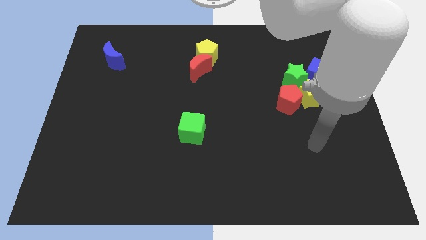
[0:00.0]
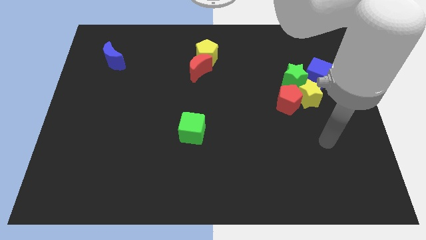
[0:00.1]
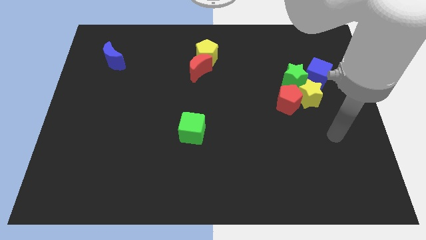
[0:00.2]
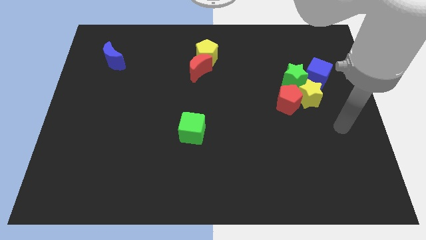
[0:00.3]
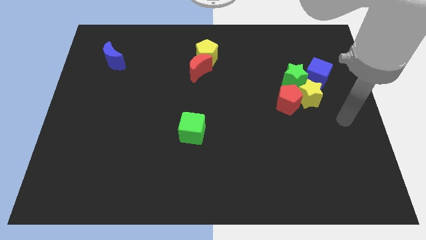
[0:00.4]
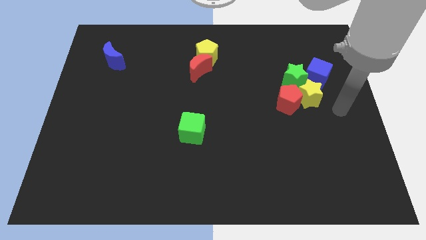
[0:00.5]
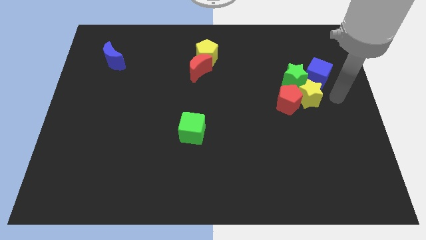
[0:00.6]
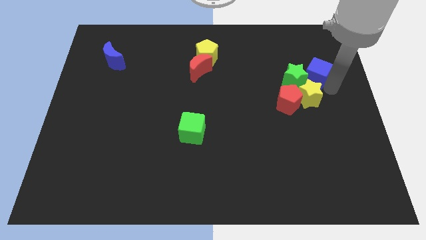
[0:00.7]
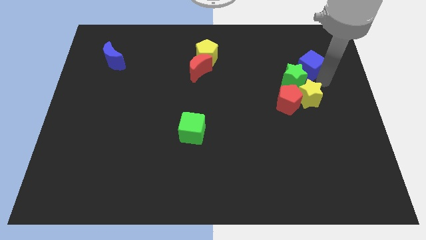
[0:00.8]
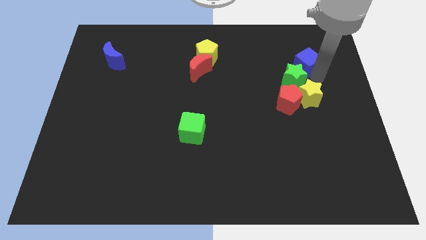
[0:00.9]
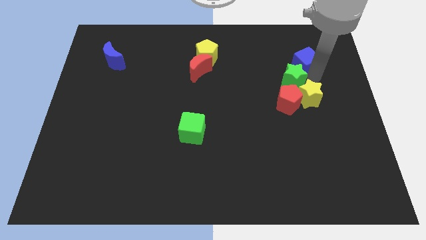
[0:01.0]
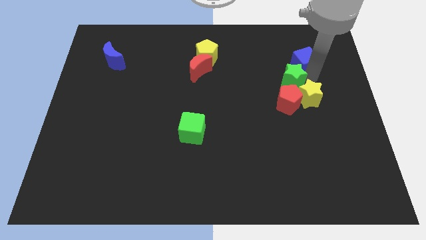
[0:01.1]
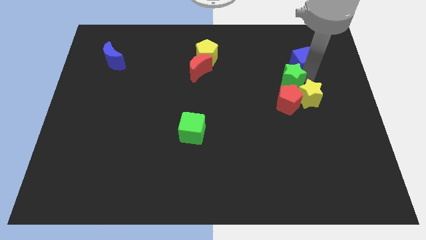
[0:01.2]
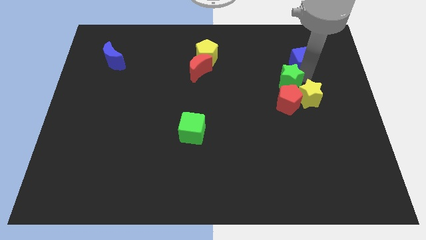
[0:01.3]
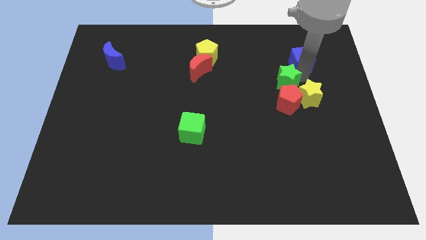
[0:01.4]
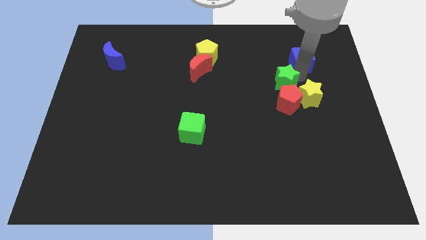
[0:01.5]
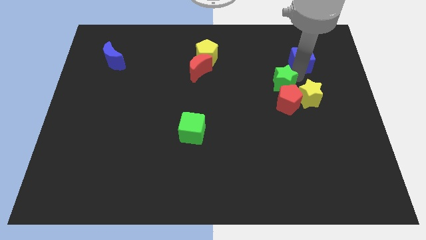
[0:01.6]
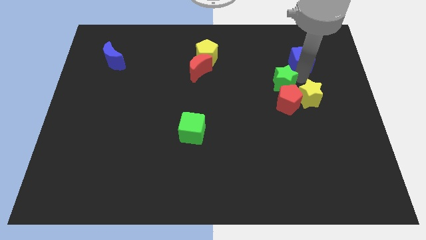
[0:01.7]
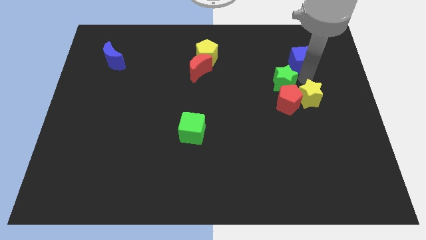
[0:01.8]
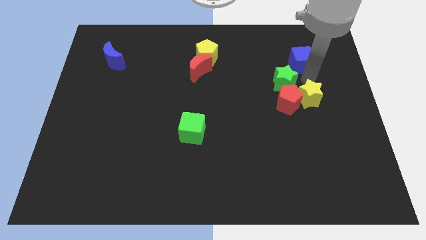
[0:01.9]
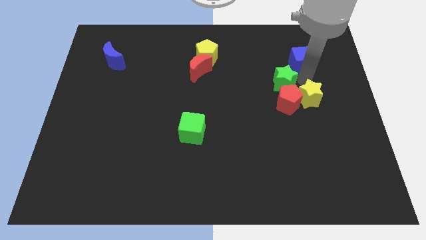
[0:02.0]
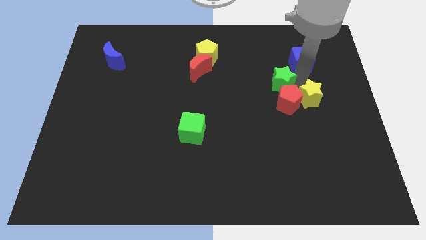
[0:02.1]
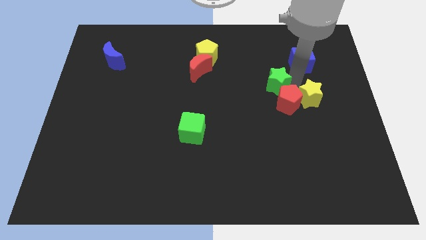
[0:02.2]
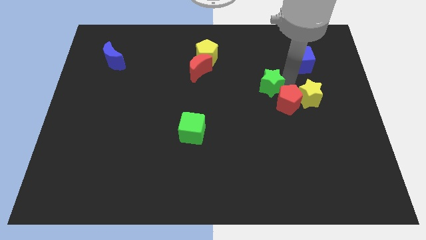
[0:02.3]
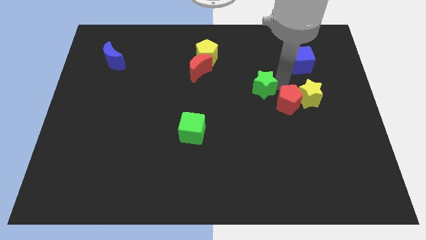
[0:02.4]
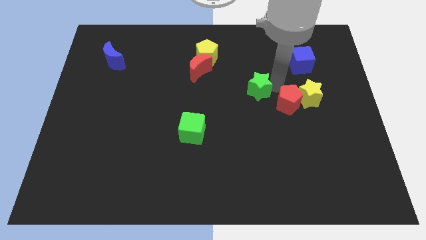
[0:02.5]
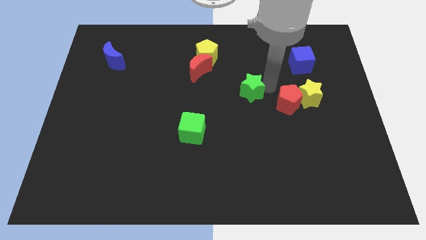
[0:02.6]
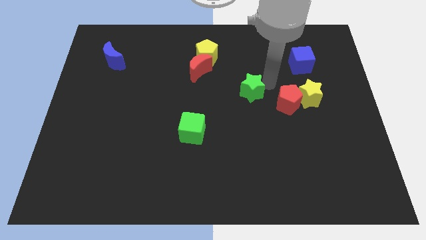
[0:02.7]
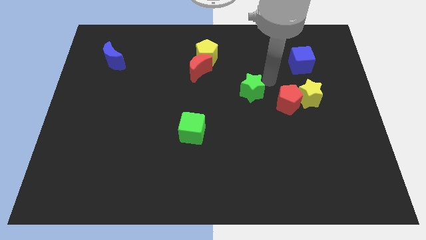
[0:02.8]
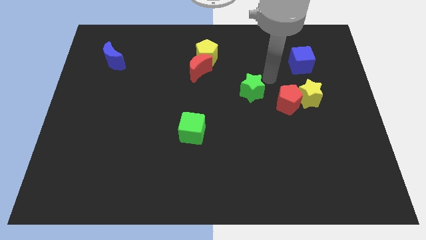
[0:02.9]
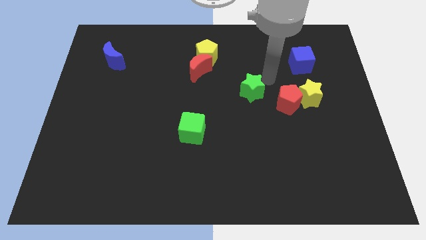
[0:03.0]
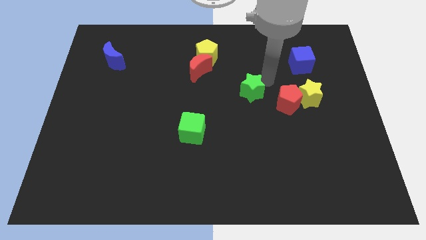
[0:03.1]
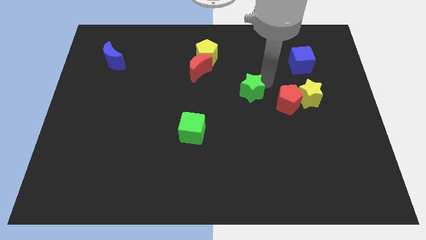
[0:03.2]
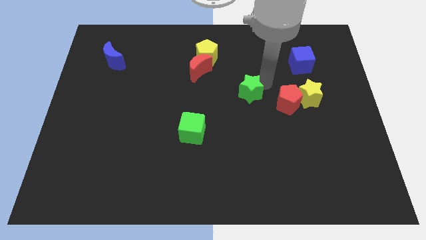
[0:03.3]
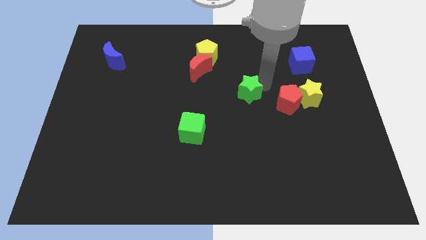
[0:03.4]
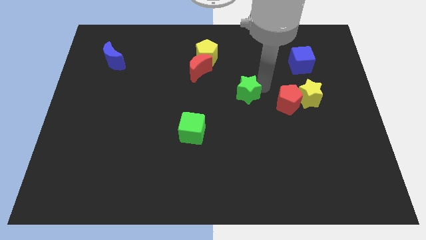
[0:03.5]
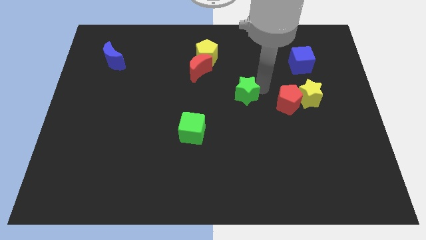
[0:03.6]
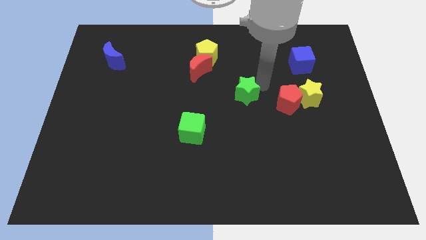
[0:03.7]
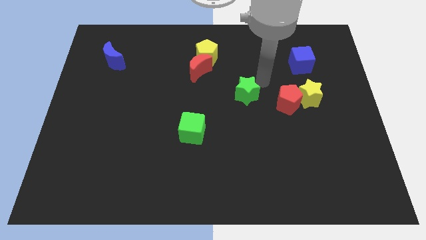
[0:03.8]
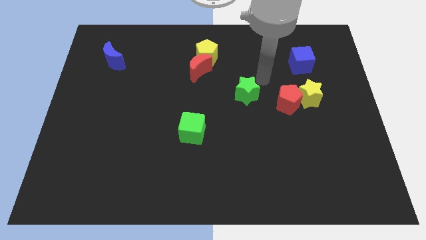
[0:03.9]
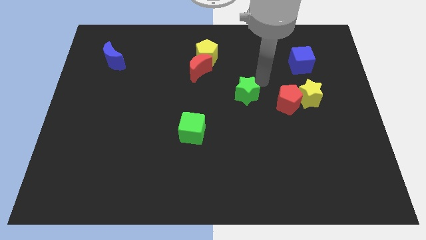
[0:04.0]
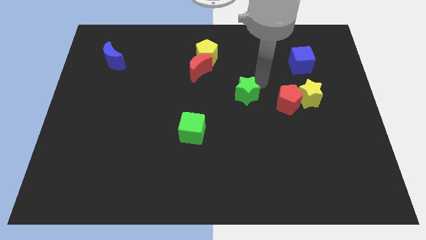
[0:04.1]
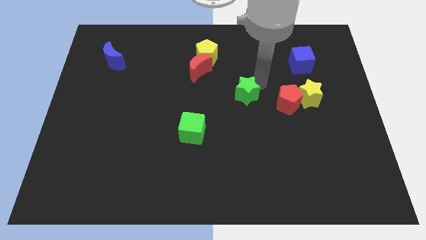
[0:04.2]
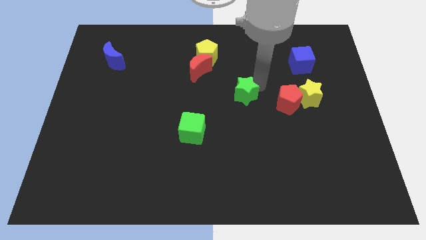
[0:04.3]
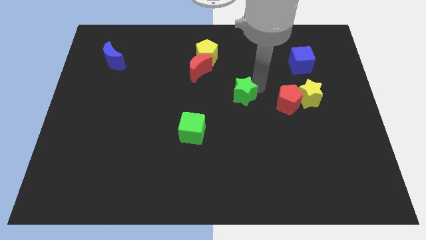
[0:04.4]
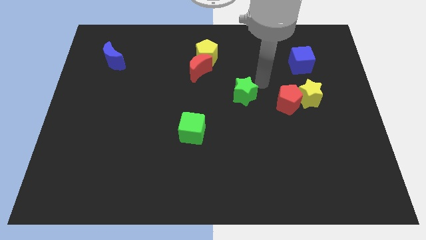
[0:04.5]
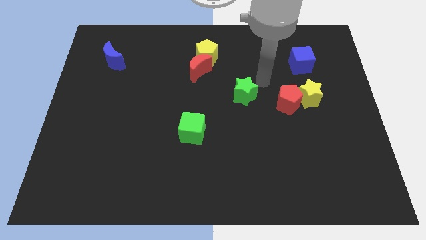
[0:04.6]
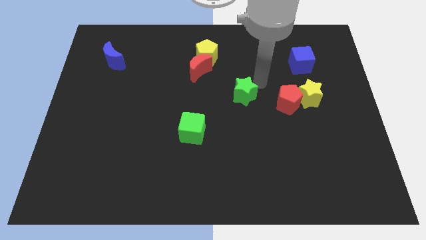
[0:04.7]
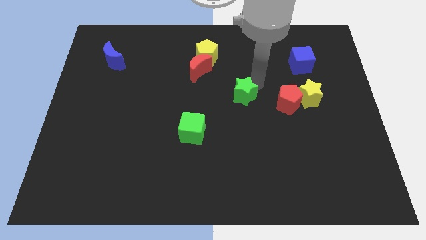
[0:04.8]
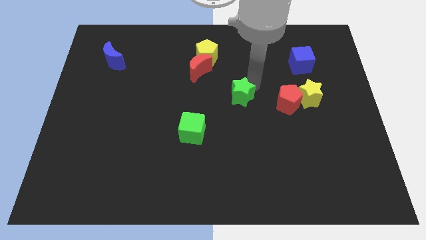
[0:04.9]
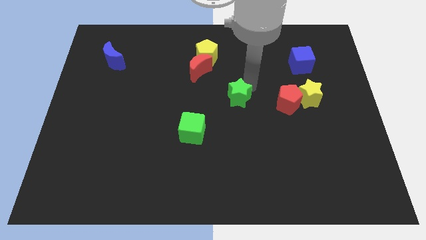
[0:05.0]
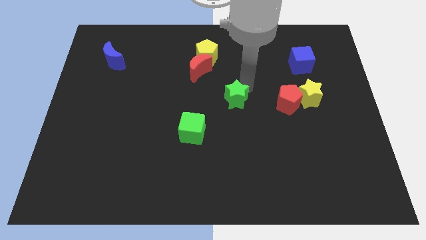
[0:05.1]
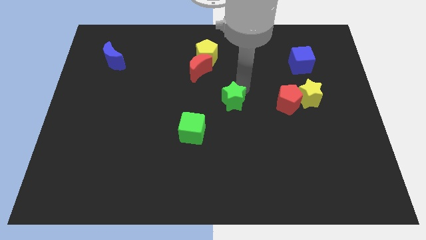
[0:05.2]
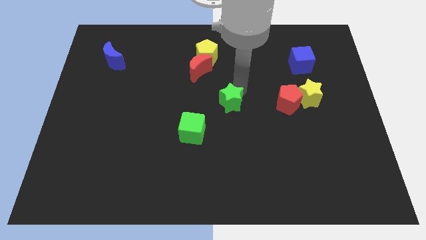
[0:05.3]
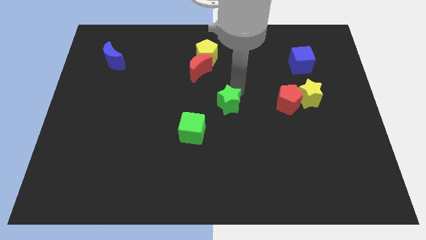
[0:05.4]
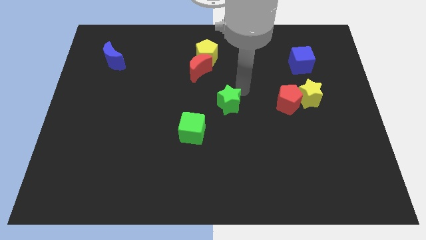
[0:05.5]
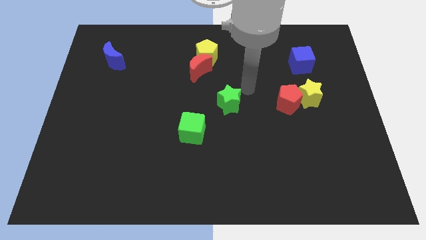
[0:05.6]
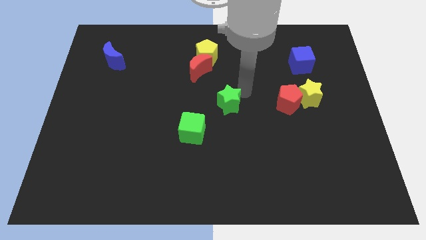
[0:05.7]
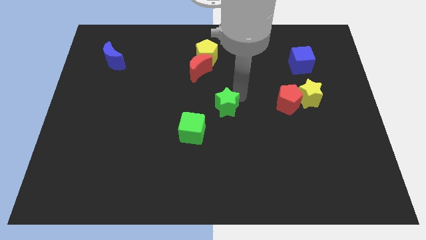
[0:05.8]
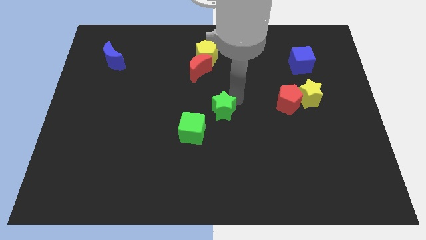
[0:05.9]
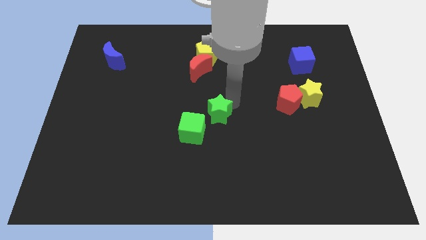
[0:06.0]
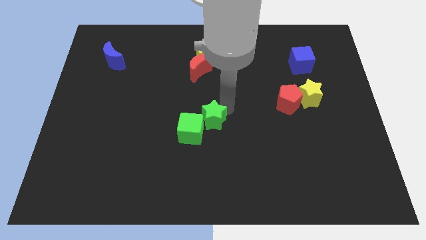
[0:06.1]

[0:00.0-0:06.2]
push the green star next to the green cube

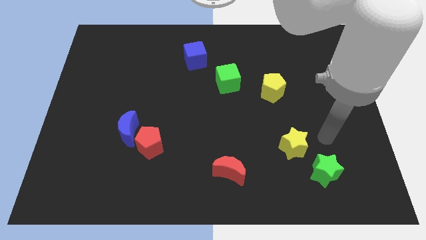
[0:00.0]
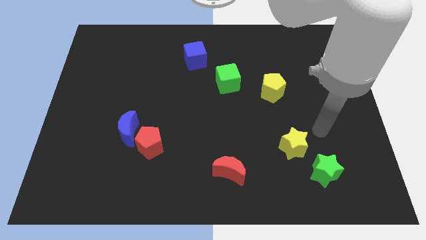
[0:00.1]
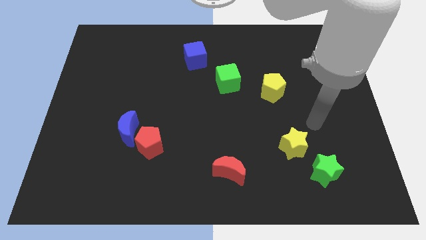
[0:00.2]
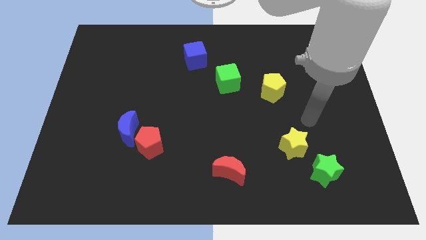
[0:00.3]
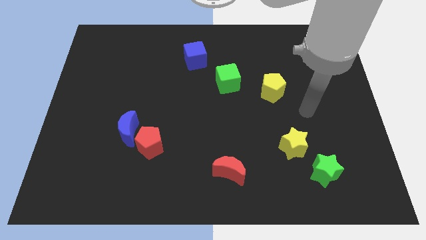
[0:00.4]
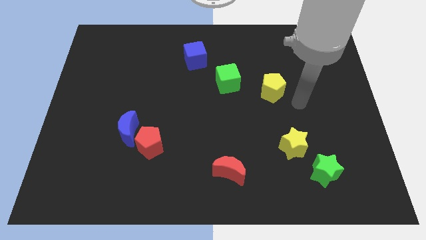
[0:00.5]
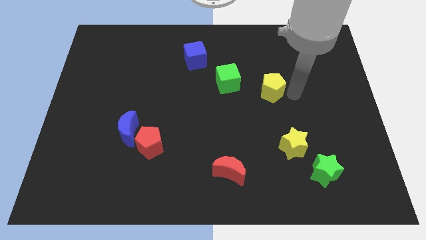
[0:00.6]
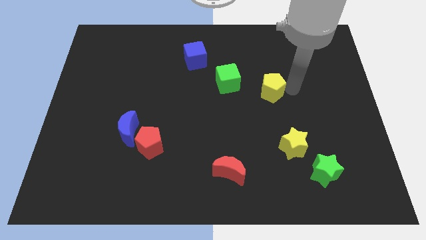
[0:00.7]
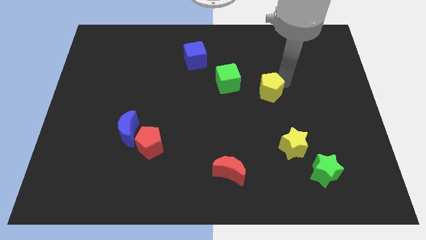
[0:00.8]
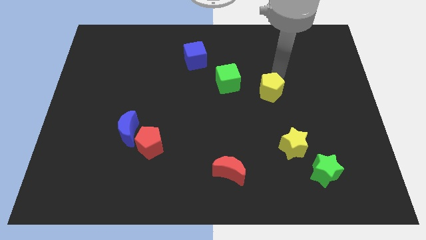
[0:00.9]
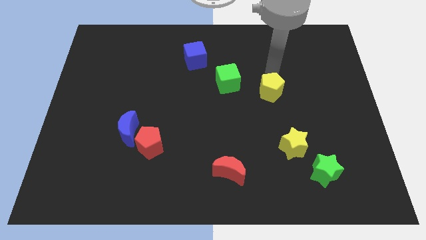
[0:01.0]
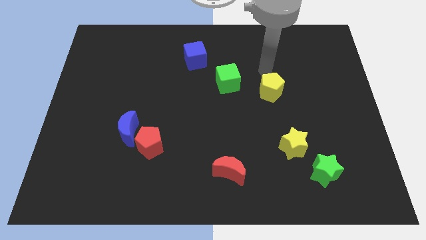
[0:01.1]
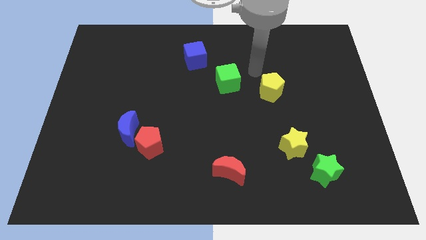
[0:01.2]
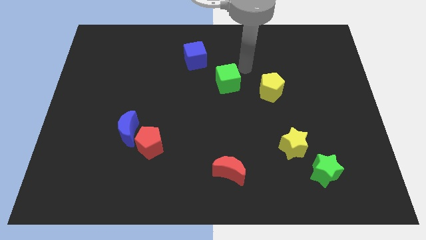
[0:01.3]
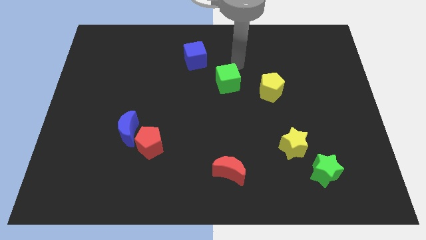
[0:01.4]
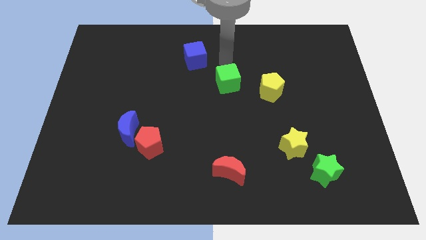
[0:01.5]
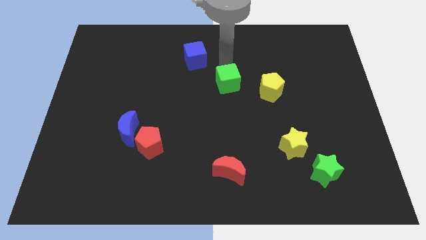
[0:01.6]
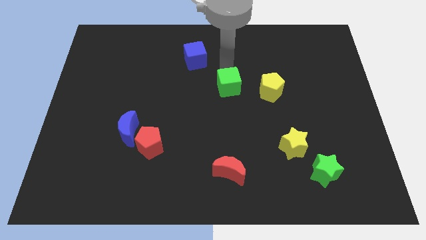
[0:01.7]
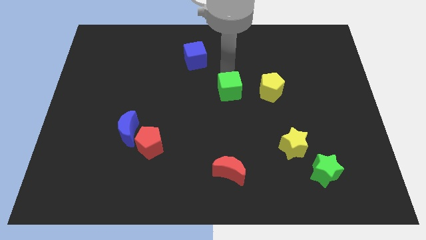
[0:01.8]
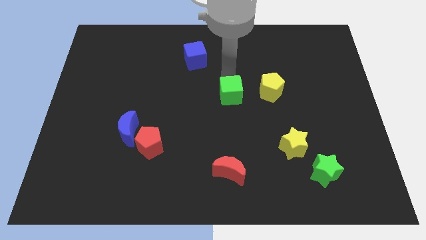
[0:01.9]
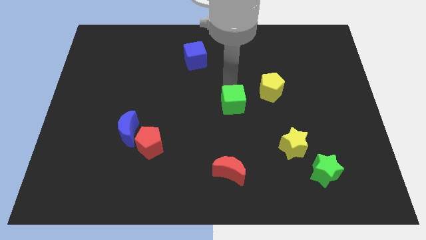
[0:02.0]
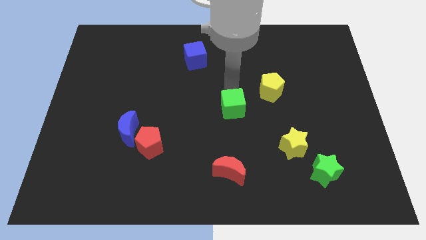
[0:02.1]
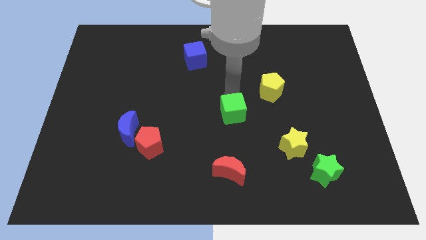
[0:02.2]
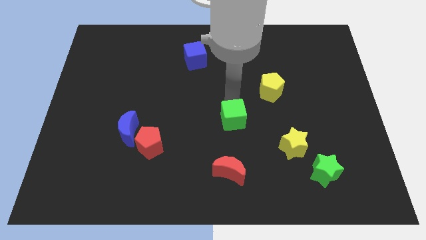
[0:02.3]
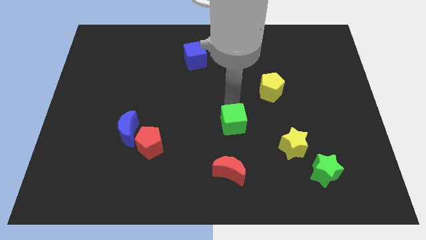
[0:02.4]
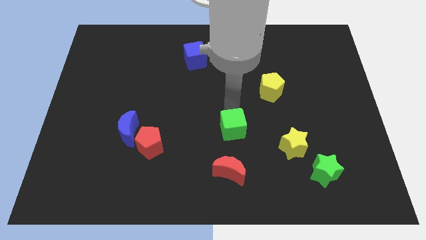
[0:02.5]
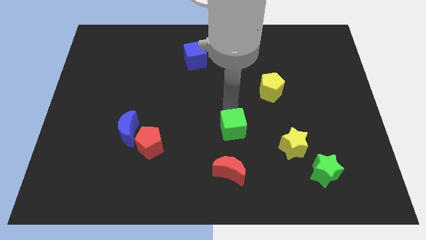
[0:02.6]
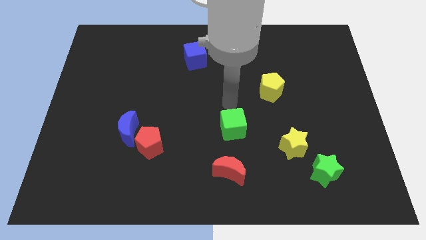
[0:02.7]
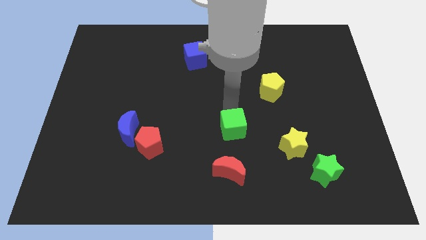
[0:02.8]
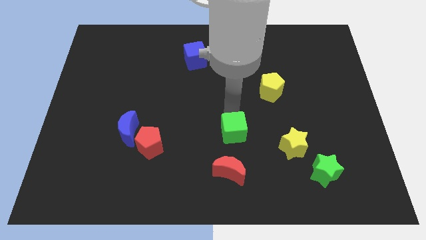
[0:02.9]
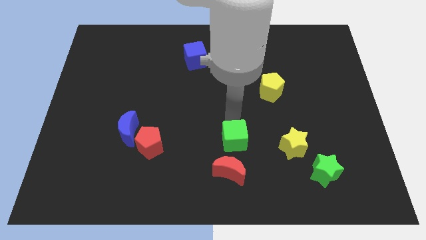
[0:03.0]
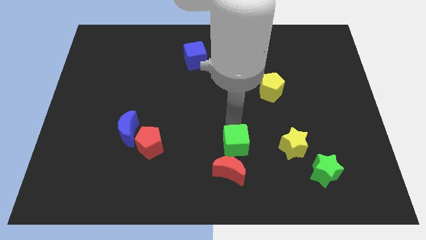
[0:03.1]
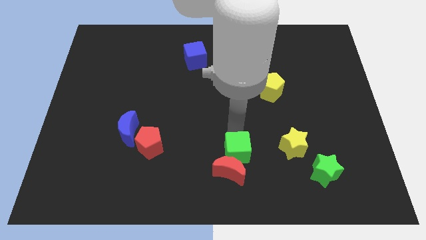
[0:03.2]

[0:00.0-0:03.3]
slide the green cube next to the red moon
